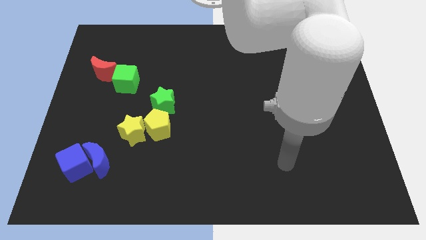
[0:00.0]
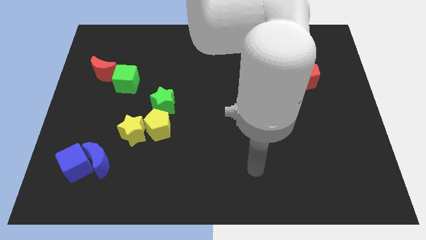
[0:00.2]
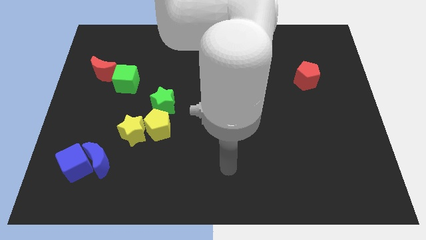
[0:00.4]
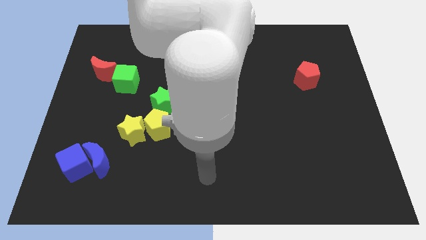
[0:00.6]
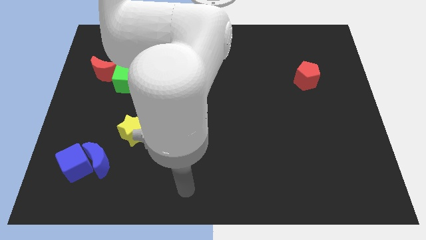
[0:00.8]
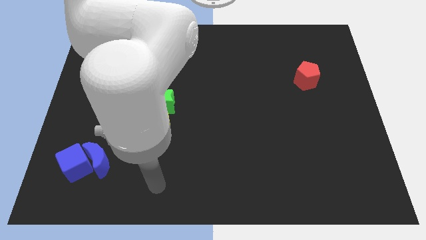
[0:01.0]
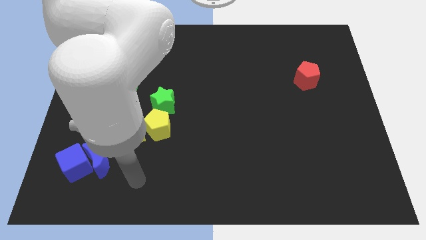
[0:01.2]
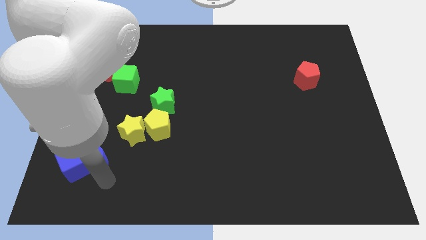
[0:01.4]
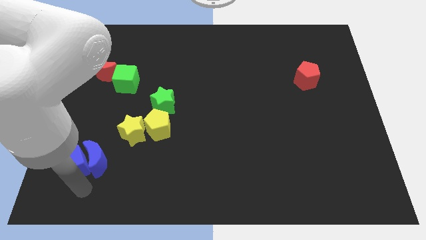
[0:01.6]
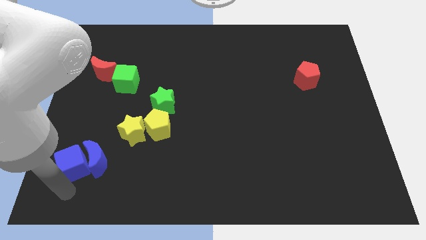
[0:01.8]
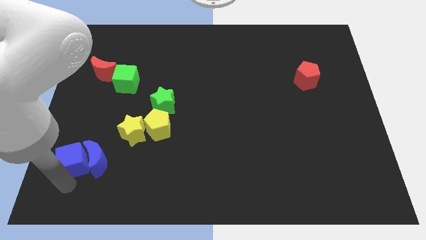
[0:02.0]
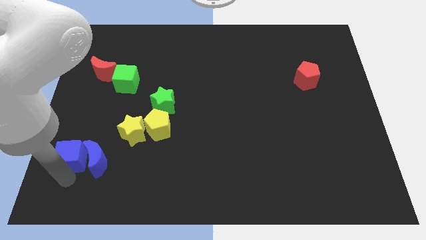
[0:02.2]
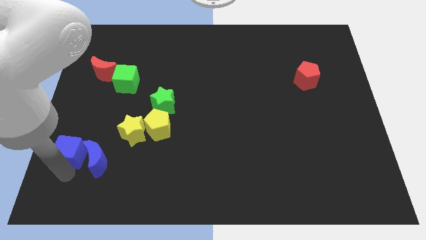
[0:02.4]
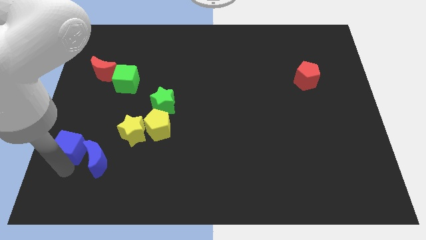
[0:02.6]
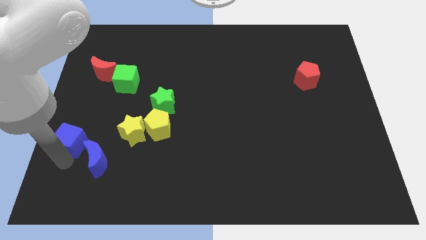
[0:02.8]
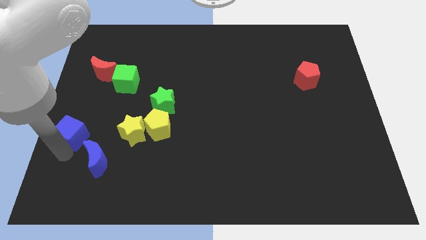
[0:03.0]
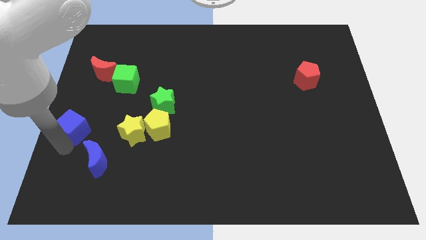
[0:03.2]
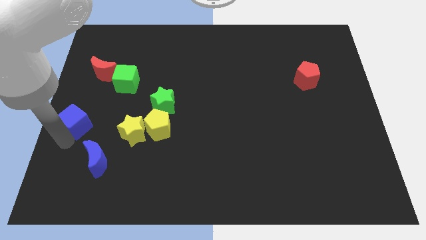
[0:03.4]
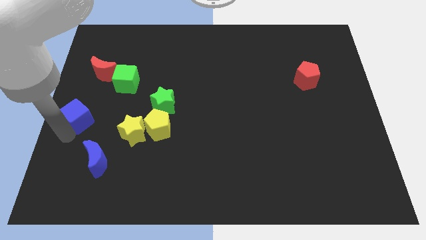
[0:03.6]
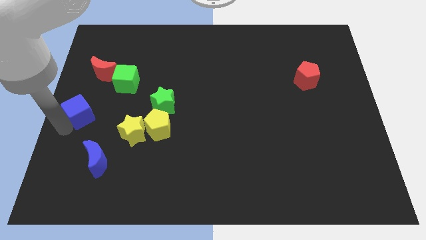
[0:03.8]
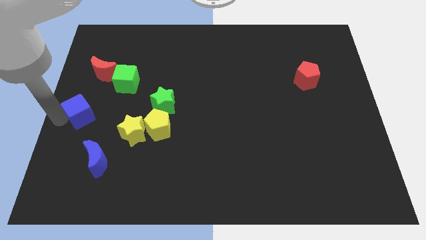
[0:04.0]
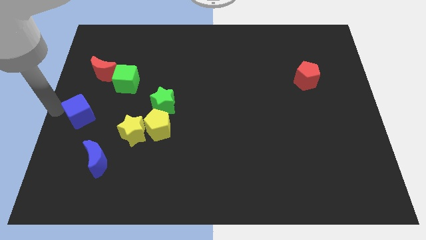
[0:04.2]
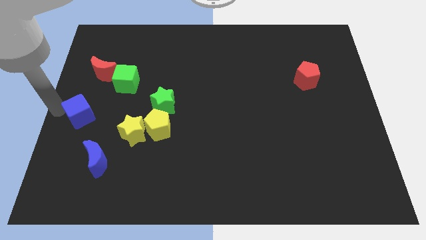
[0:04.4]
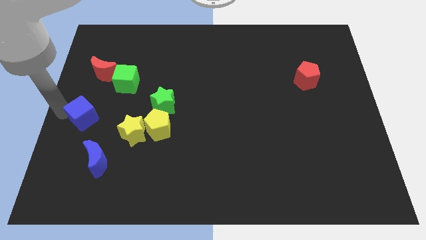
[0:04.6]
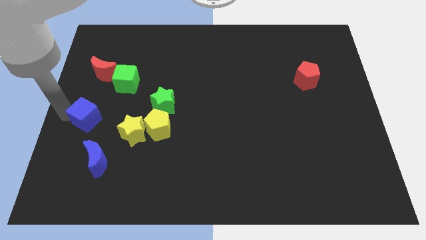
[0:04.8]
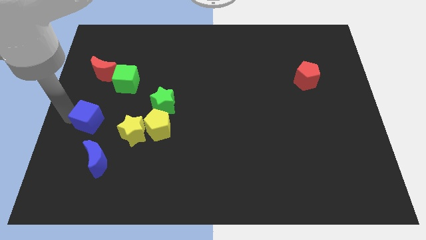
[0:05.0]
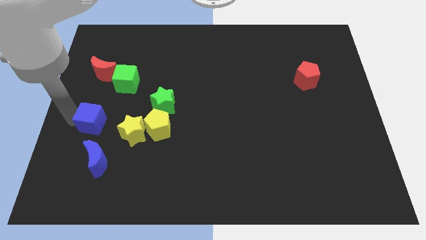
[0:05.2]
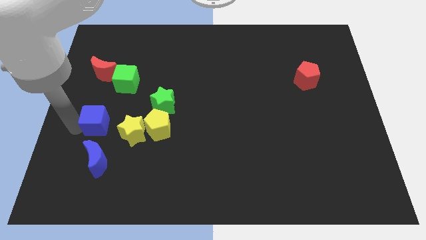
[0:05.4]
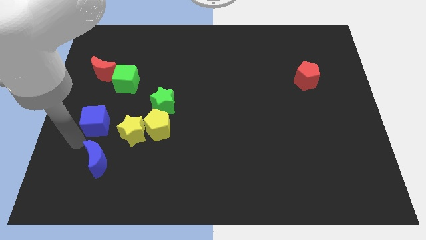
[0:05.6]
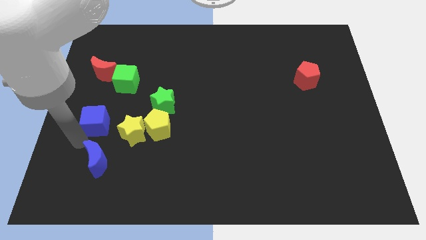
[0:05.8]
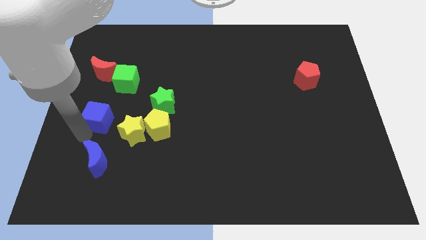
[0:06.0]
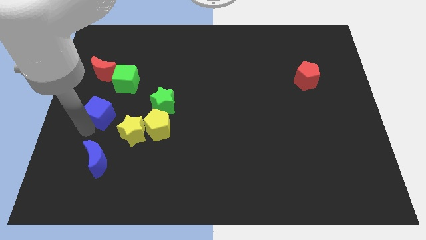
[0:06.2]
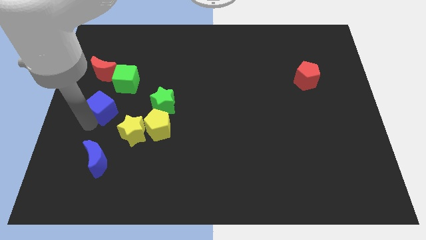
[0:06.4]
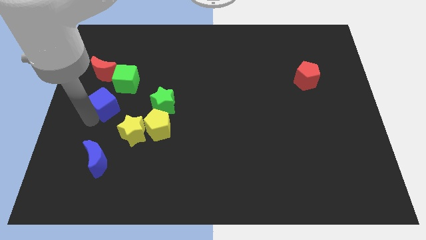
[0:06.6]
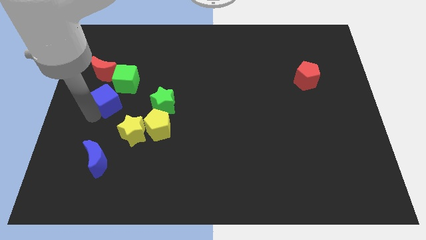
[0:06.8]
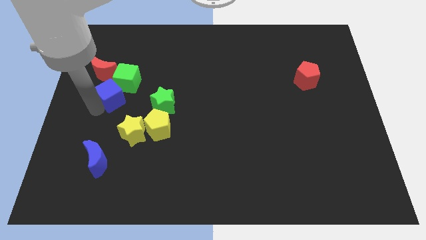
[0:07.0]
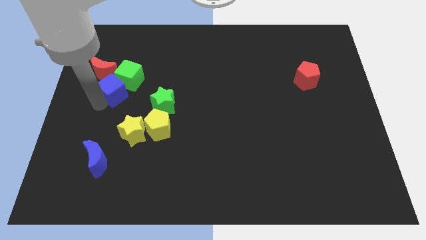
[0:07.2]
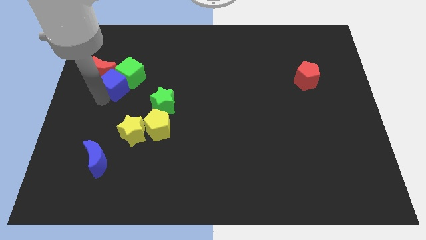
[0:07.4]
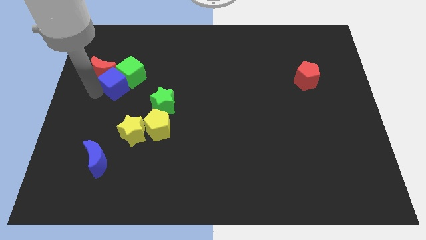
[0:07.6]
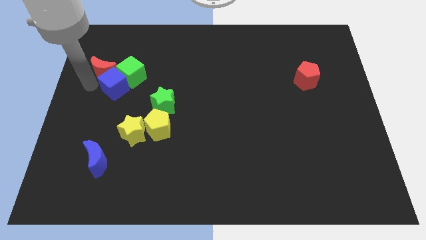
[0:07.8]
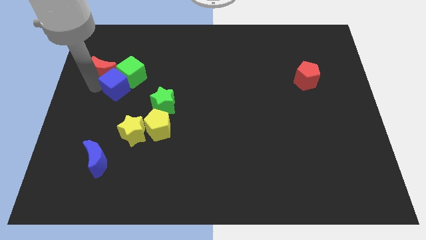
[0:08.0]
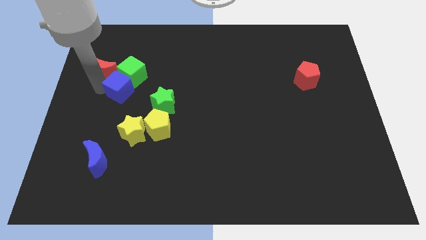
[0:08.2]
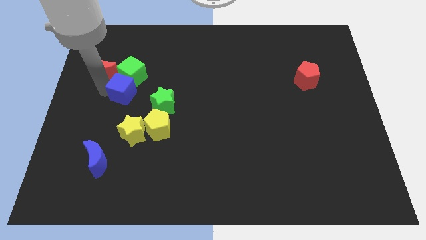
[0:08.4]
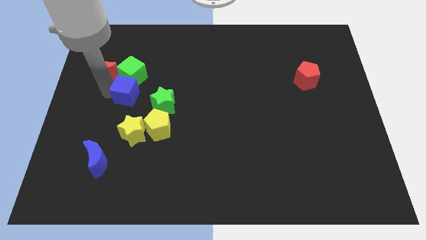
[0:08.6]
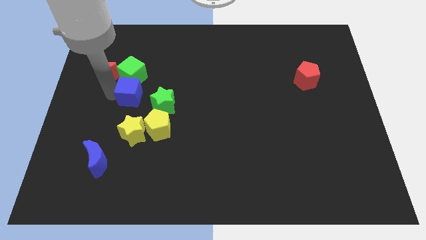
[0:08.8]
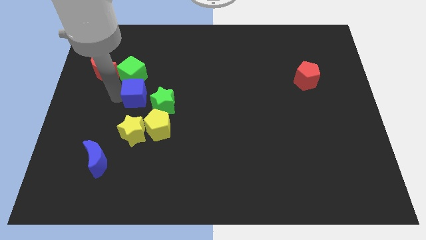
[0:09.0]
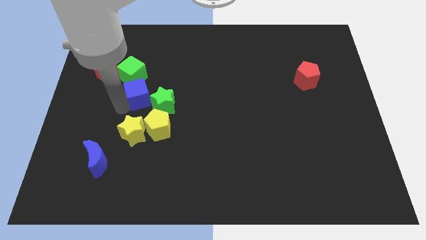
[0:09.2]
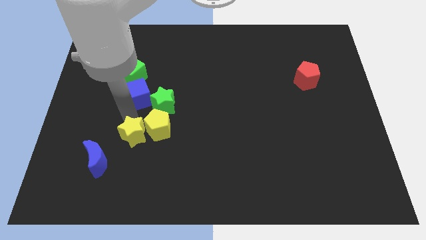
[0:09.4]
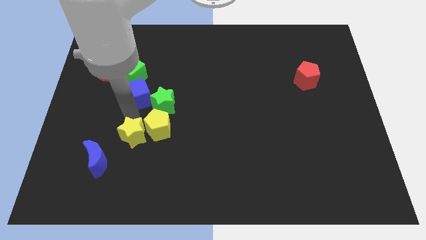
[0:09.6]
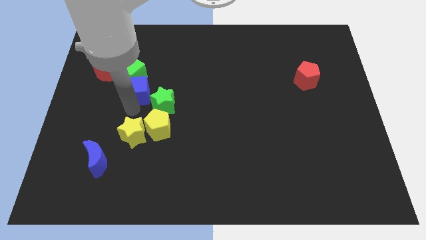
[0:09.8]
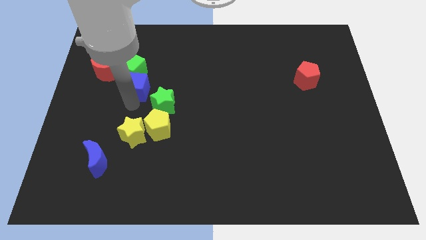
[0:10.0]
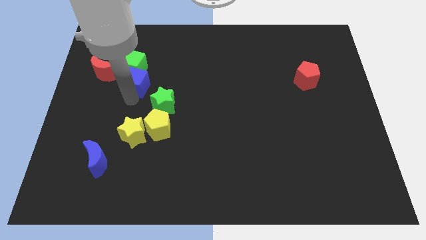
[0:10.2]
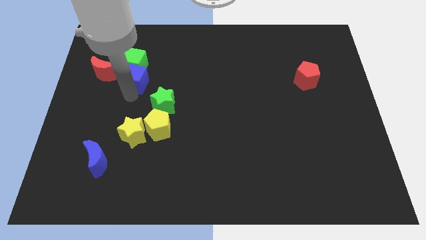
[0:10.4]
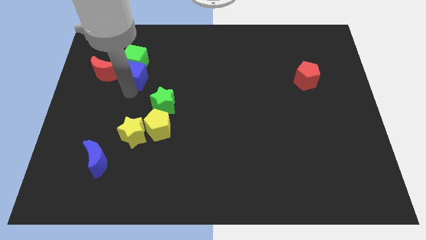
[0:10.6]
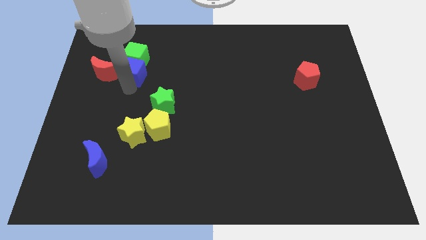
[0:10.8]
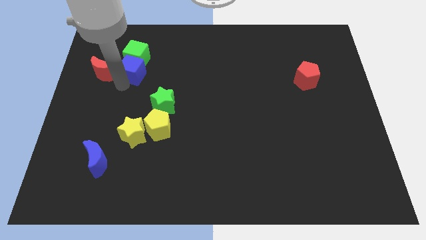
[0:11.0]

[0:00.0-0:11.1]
put the blue cube to the top right side of the red moon

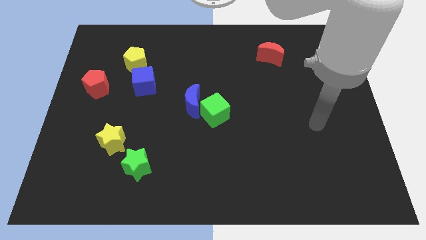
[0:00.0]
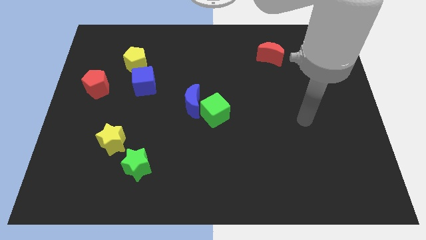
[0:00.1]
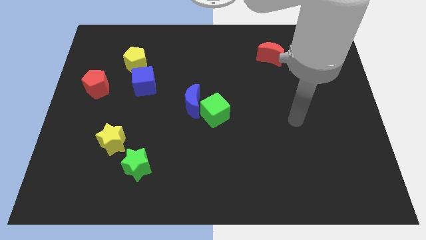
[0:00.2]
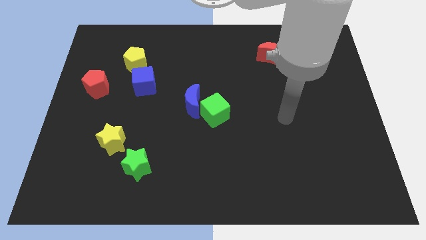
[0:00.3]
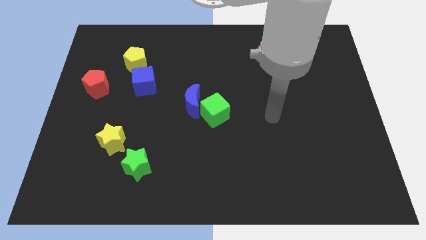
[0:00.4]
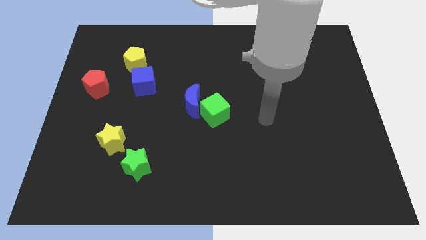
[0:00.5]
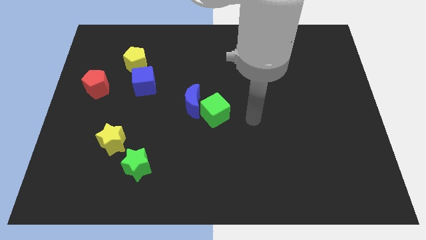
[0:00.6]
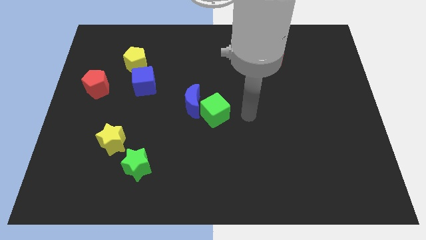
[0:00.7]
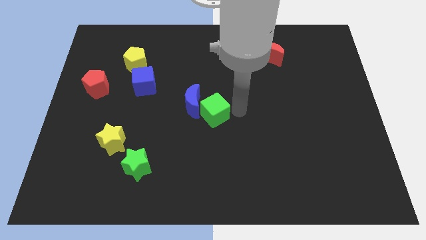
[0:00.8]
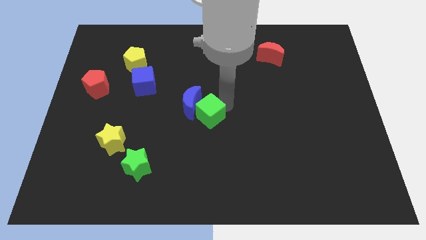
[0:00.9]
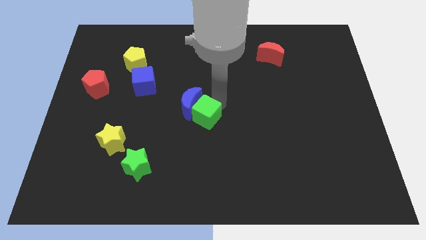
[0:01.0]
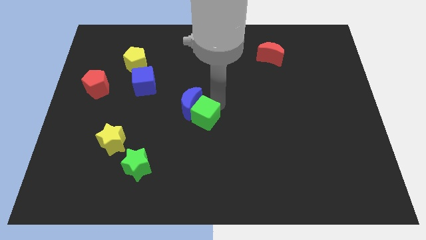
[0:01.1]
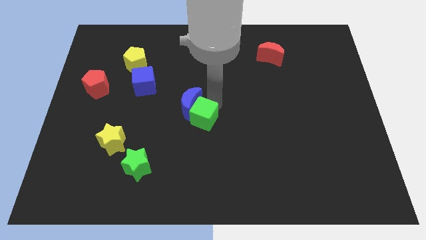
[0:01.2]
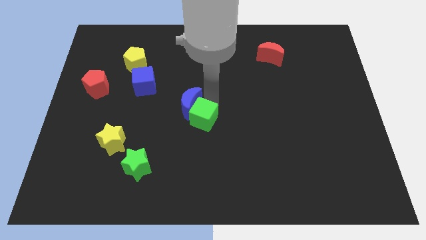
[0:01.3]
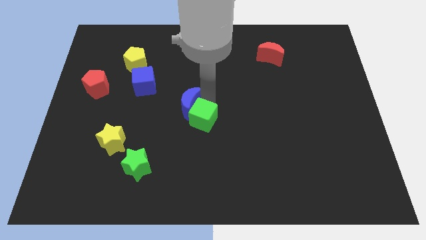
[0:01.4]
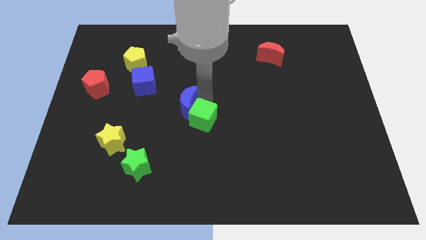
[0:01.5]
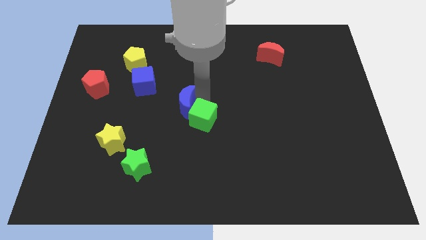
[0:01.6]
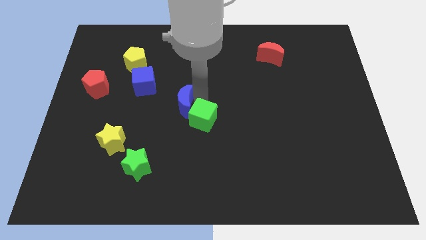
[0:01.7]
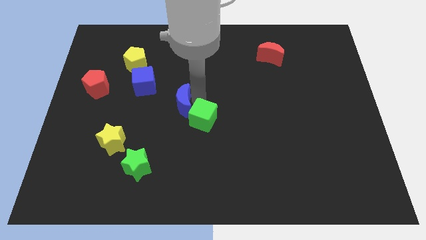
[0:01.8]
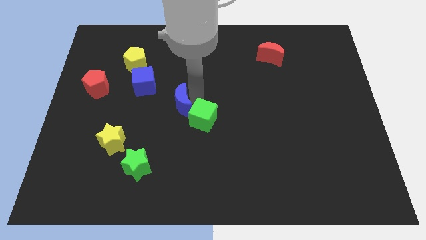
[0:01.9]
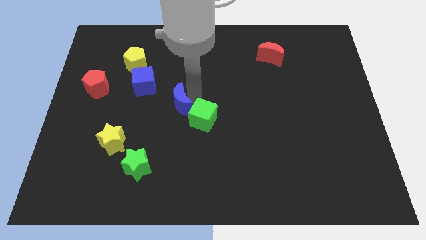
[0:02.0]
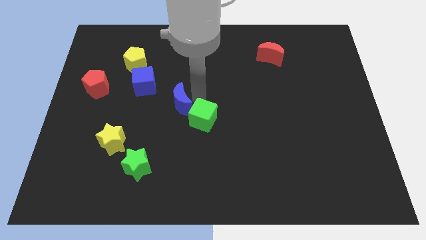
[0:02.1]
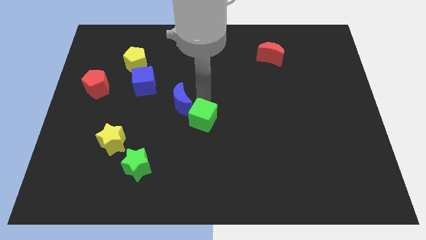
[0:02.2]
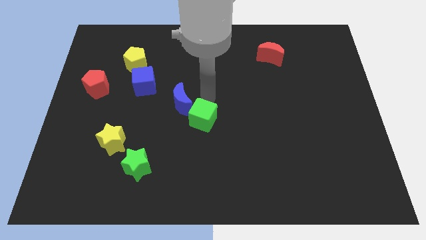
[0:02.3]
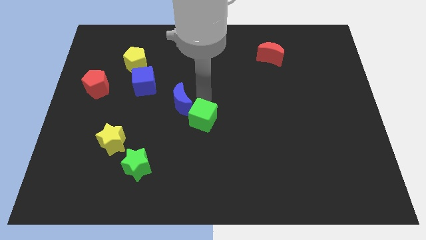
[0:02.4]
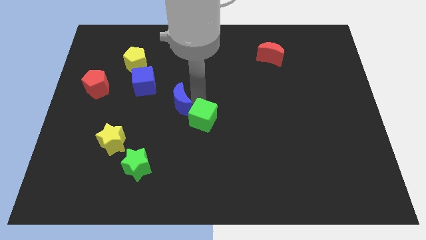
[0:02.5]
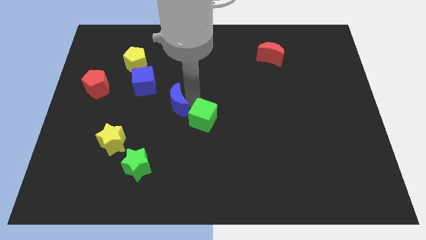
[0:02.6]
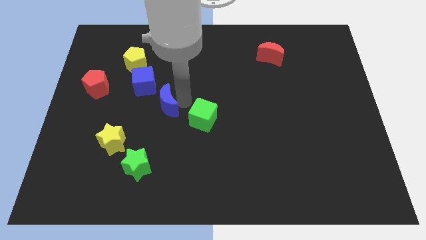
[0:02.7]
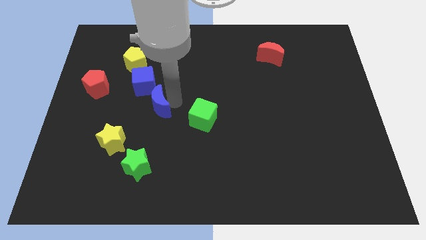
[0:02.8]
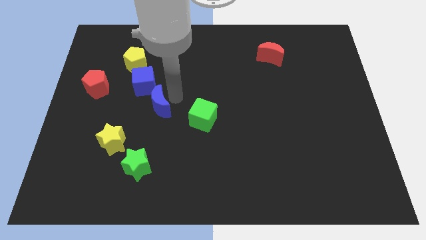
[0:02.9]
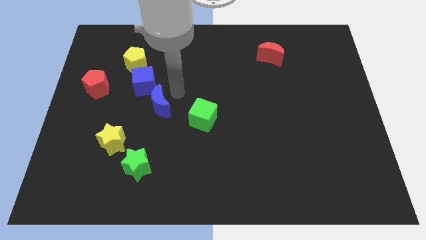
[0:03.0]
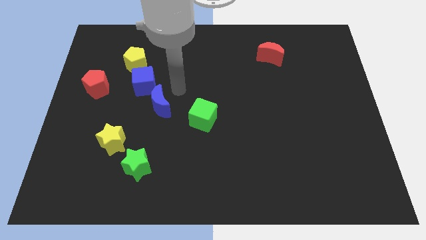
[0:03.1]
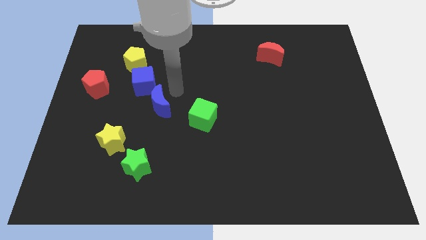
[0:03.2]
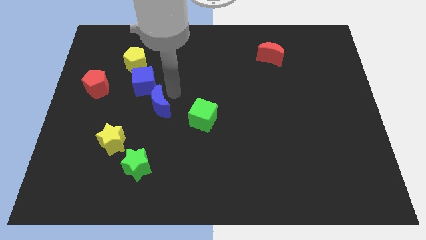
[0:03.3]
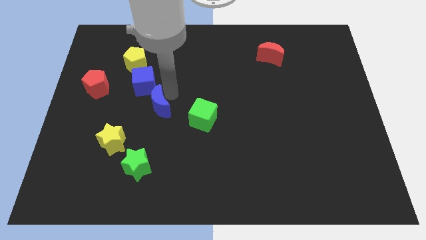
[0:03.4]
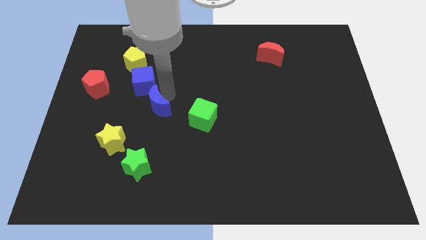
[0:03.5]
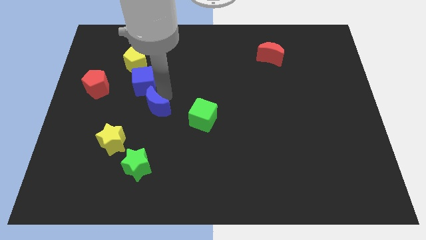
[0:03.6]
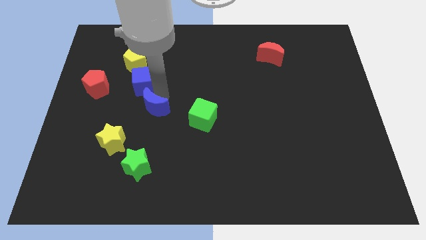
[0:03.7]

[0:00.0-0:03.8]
put the blue moon diagonally up and to the right of the yellow star
